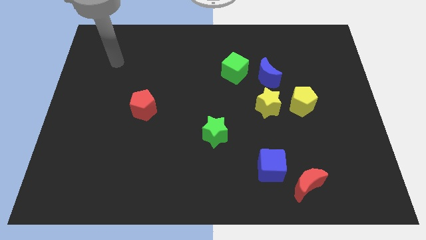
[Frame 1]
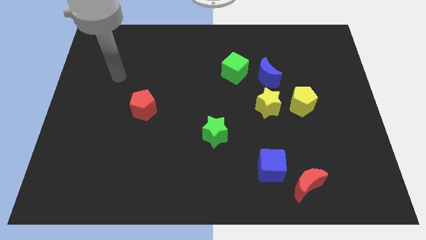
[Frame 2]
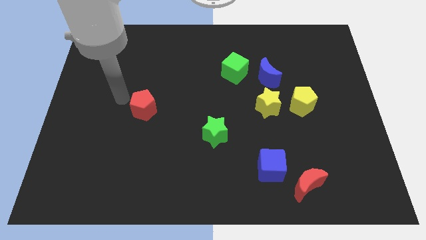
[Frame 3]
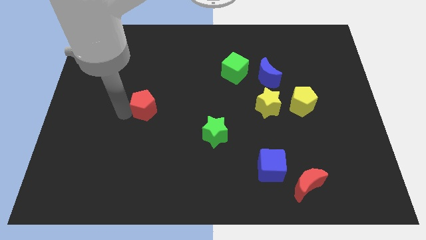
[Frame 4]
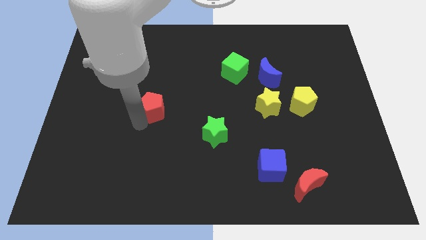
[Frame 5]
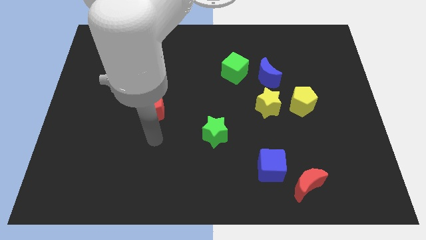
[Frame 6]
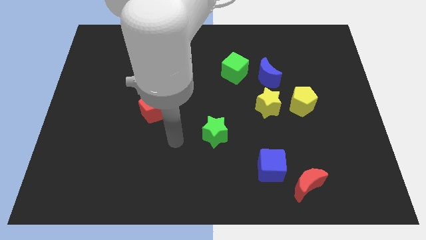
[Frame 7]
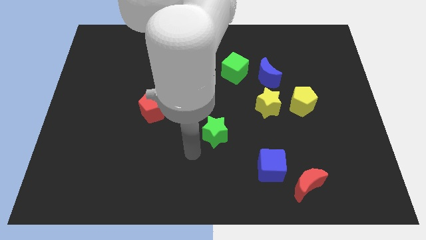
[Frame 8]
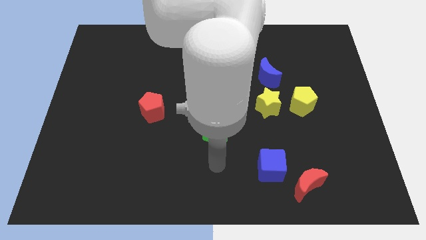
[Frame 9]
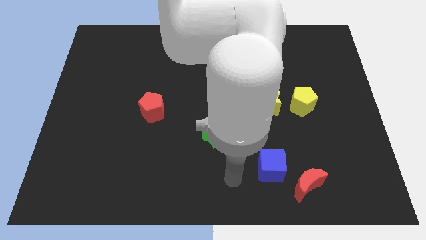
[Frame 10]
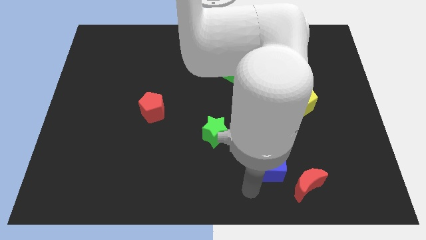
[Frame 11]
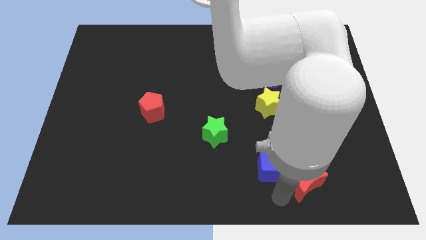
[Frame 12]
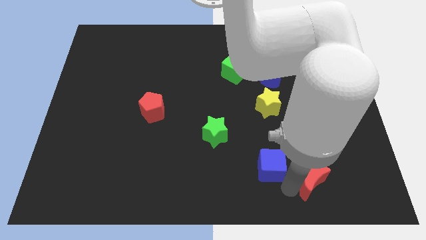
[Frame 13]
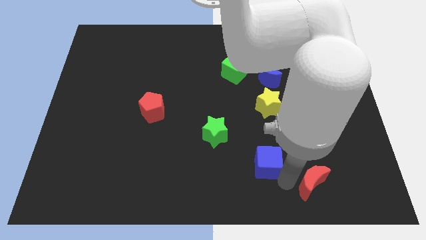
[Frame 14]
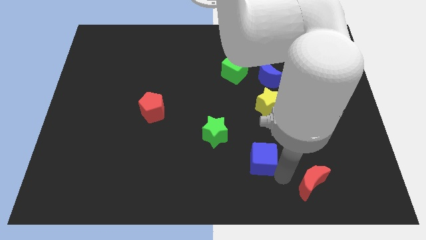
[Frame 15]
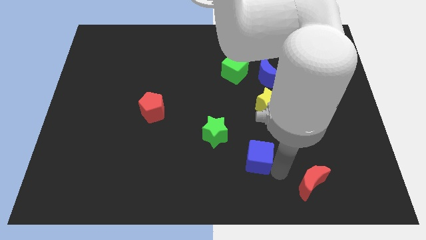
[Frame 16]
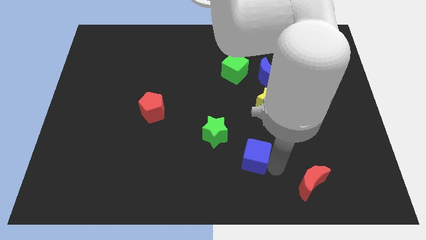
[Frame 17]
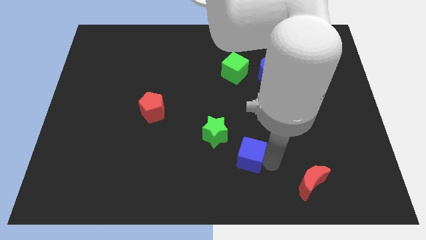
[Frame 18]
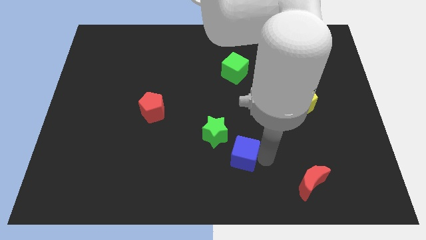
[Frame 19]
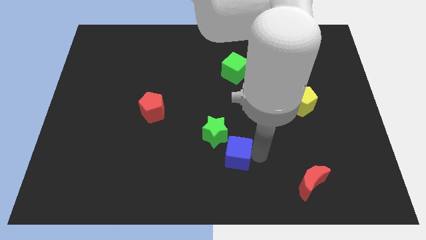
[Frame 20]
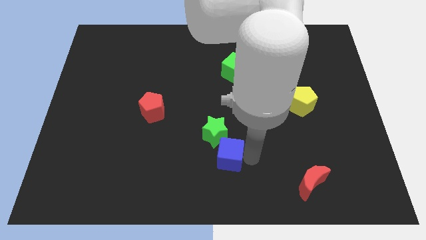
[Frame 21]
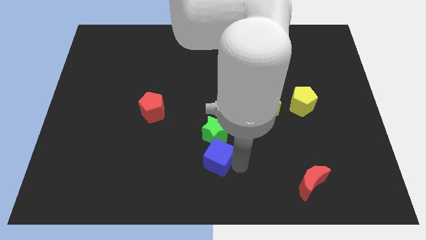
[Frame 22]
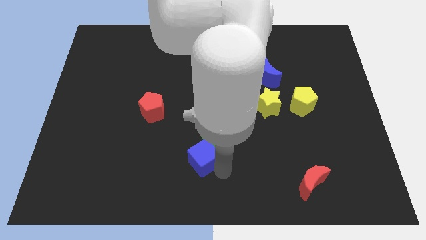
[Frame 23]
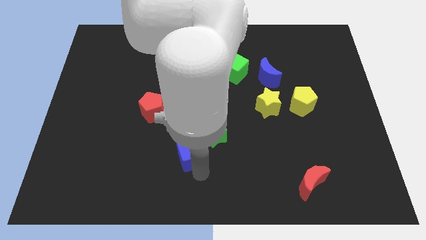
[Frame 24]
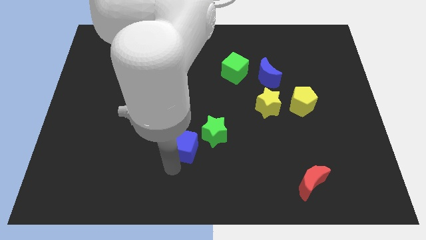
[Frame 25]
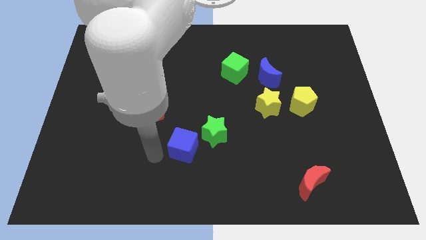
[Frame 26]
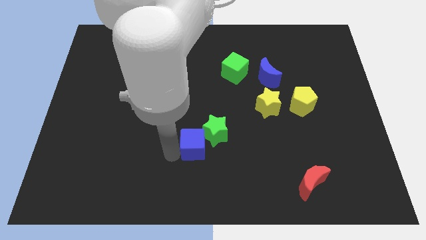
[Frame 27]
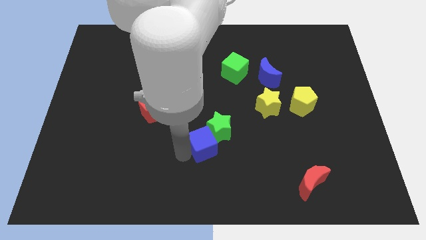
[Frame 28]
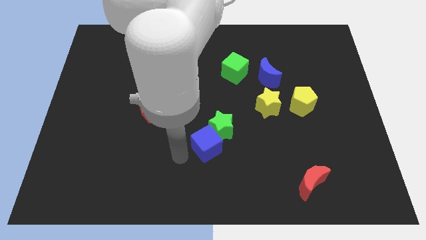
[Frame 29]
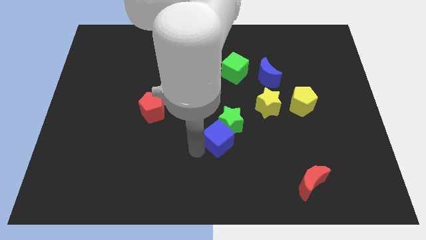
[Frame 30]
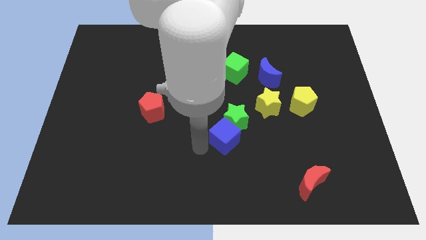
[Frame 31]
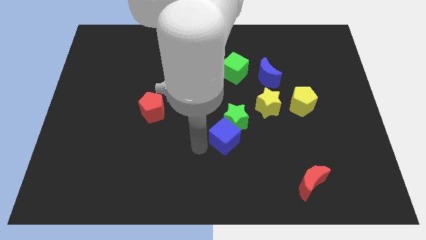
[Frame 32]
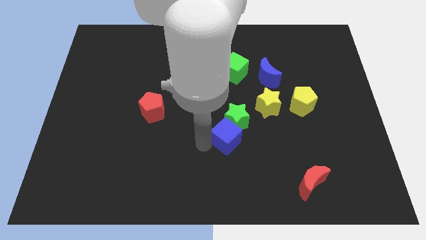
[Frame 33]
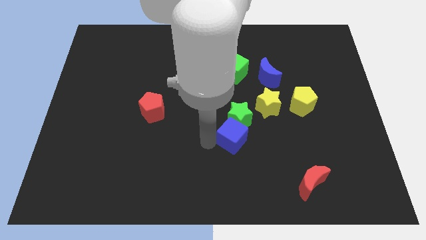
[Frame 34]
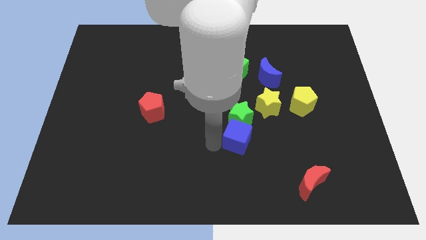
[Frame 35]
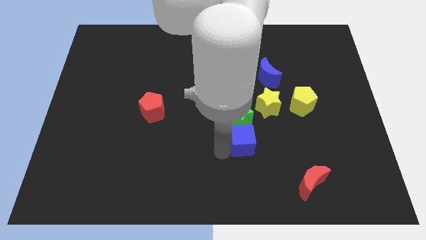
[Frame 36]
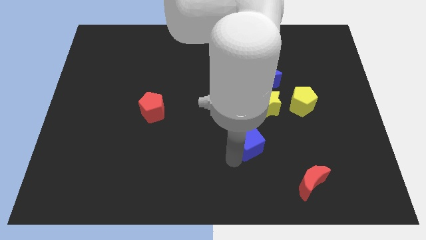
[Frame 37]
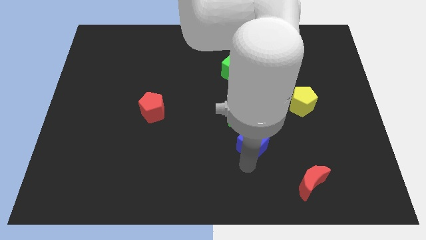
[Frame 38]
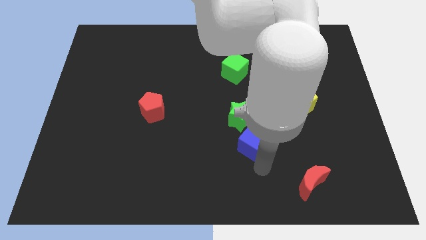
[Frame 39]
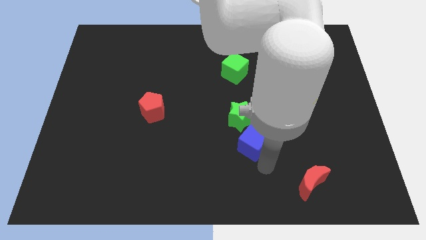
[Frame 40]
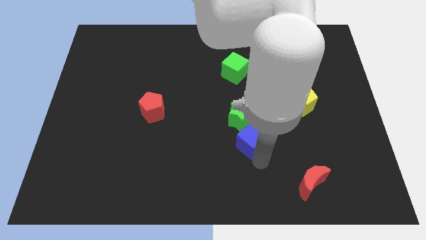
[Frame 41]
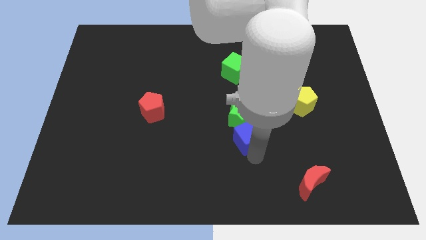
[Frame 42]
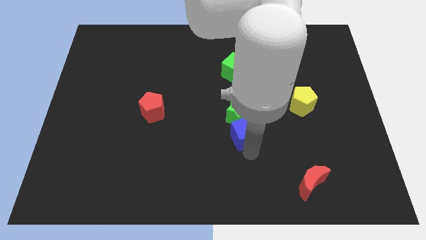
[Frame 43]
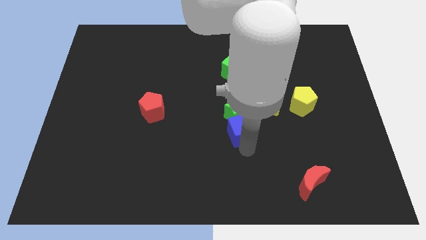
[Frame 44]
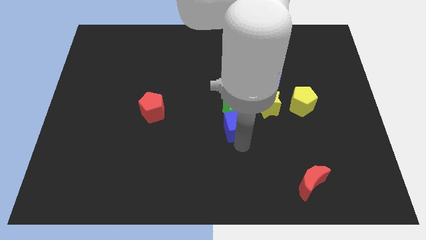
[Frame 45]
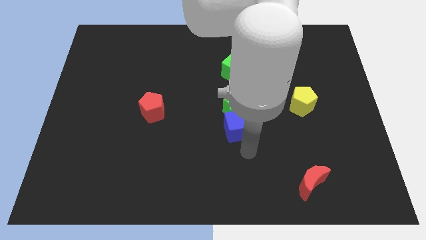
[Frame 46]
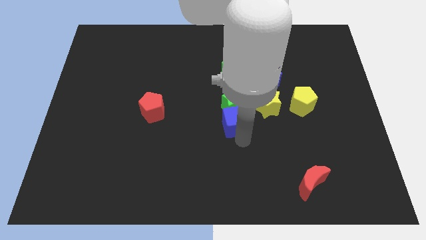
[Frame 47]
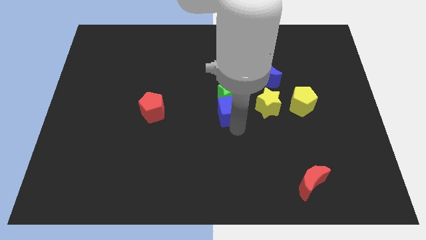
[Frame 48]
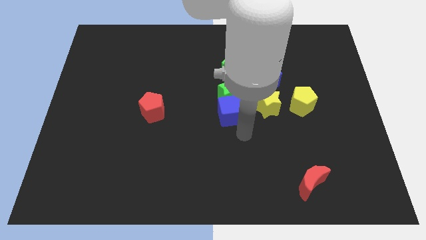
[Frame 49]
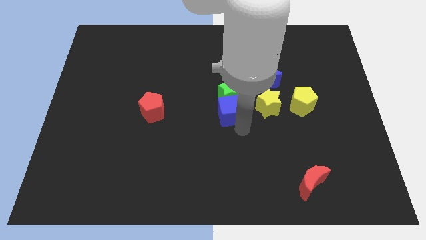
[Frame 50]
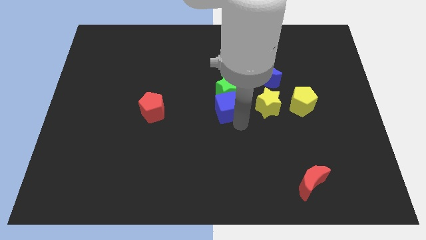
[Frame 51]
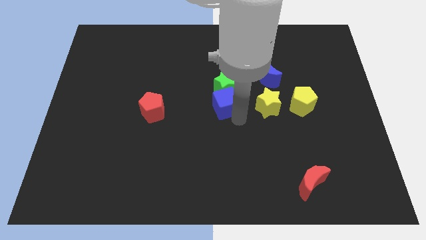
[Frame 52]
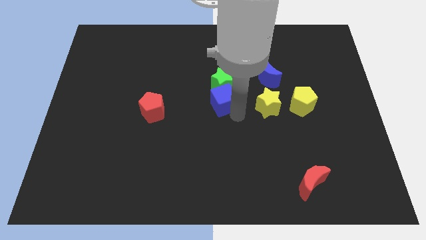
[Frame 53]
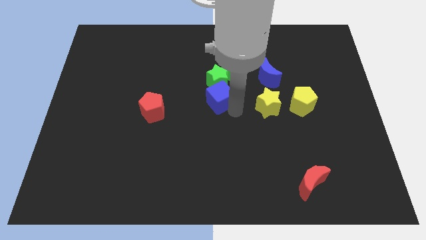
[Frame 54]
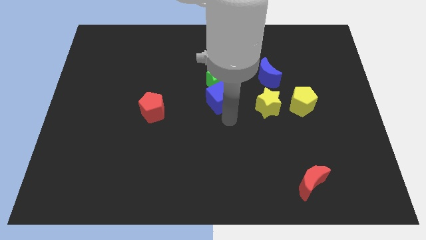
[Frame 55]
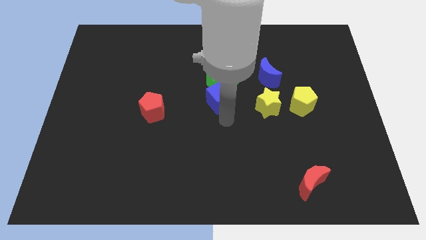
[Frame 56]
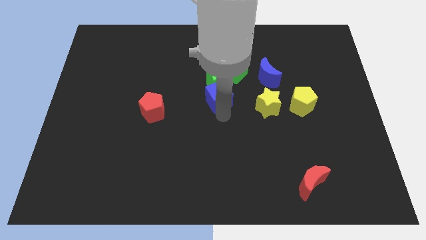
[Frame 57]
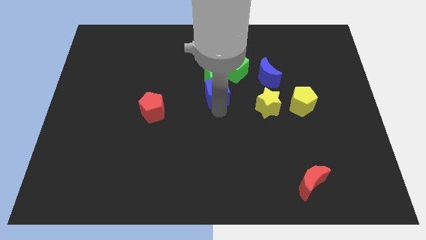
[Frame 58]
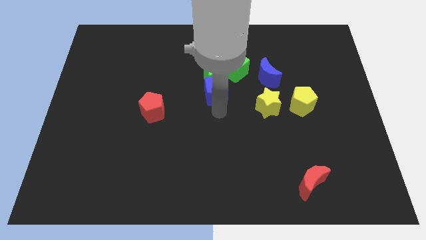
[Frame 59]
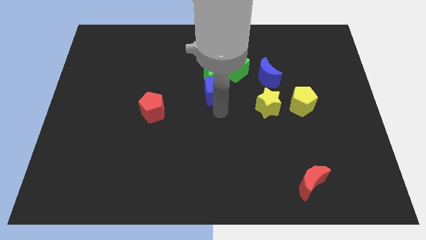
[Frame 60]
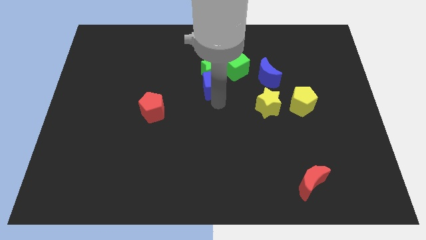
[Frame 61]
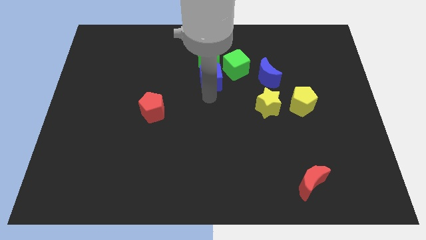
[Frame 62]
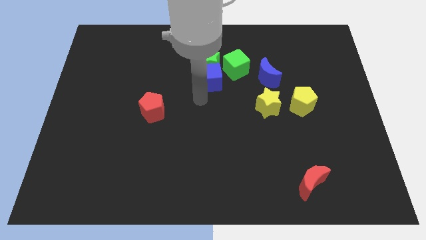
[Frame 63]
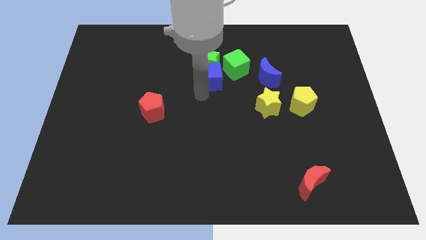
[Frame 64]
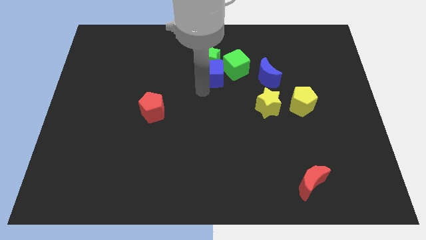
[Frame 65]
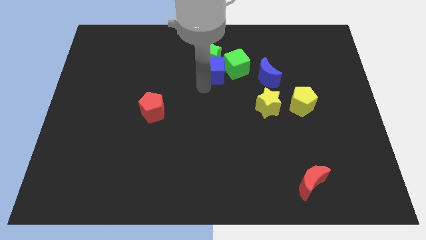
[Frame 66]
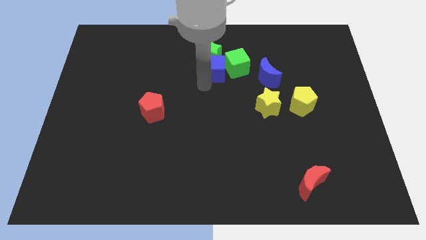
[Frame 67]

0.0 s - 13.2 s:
move the blue cube upwards

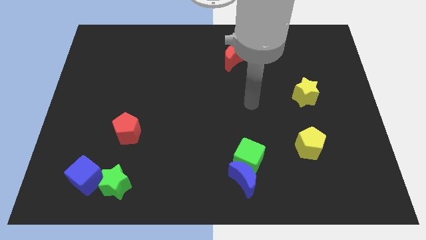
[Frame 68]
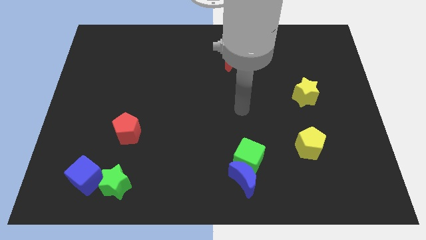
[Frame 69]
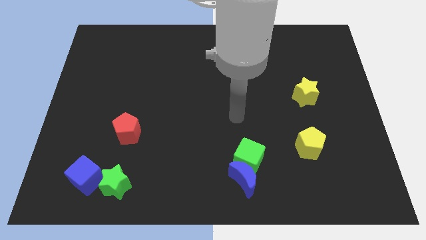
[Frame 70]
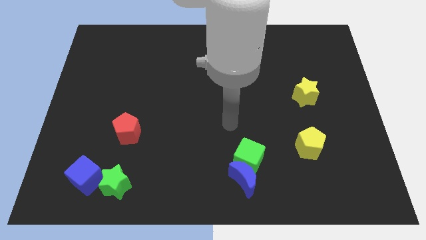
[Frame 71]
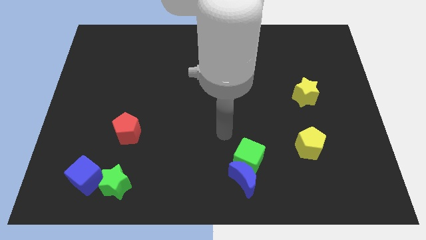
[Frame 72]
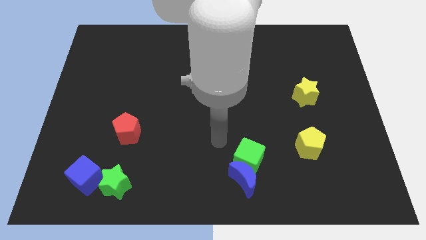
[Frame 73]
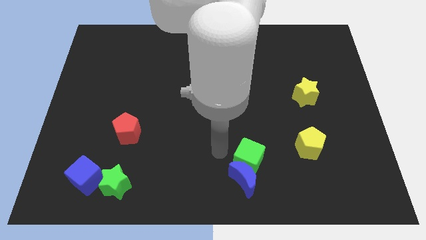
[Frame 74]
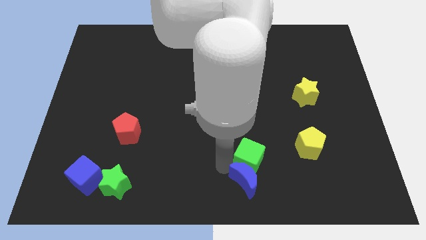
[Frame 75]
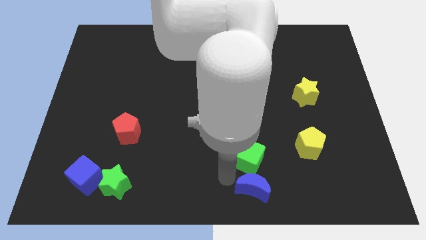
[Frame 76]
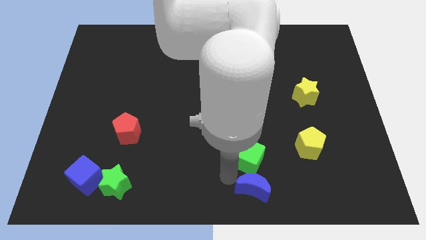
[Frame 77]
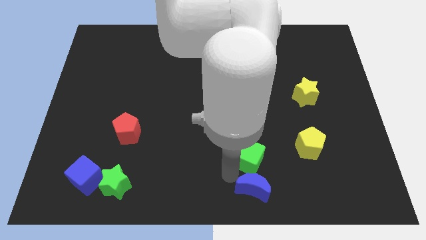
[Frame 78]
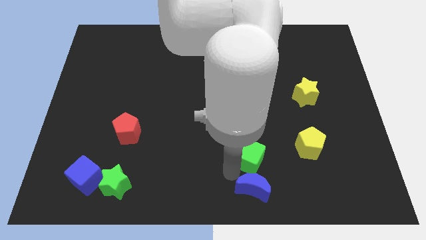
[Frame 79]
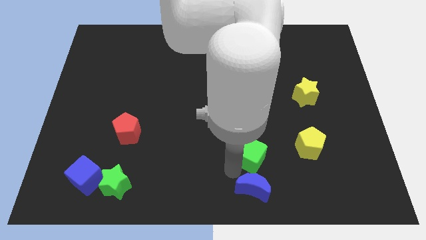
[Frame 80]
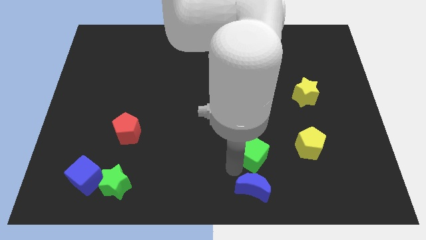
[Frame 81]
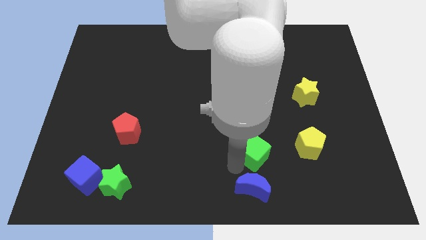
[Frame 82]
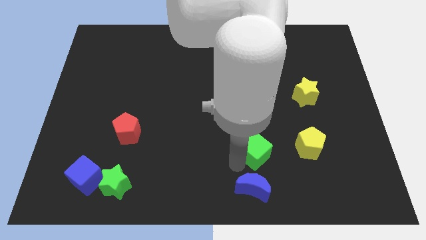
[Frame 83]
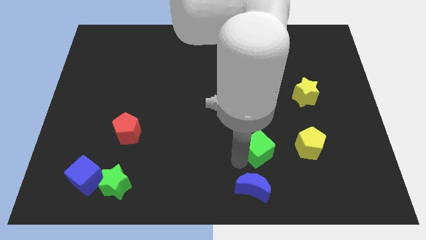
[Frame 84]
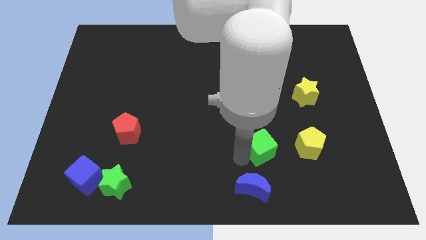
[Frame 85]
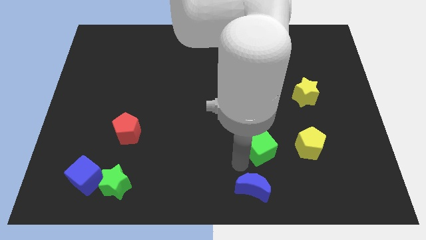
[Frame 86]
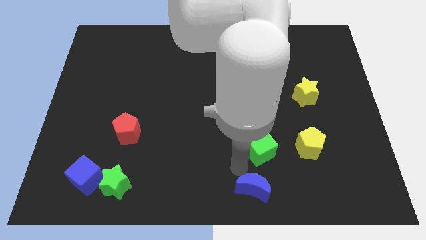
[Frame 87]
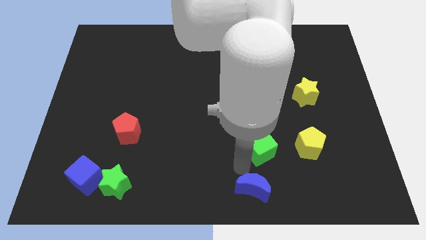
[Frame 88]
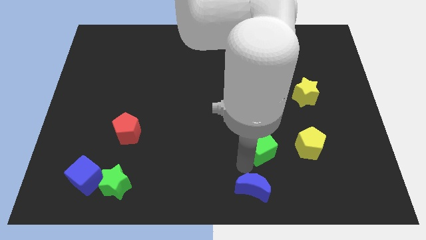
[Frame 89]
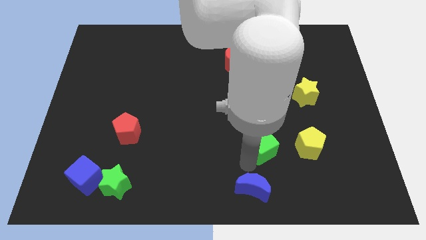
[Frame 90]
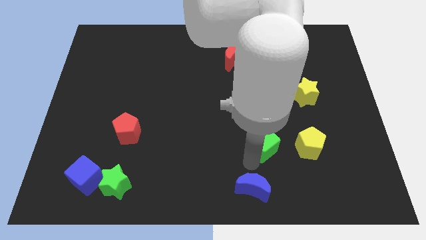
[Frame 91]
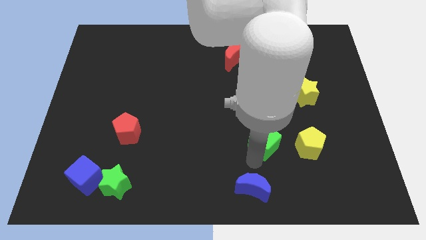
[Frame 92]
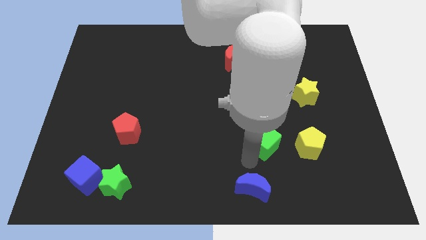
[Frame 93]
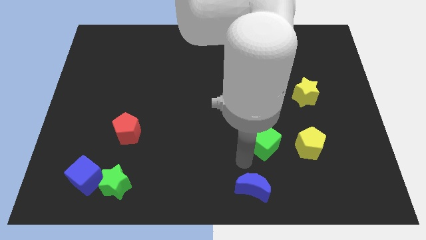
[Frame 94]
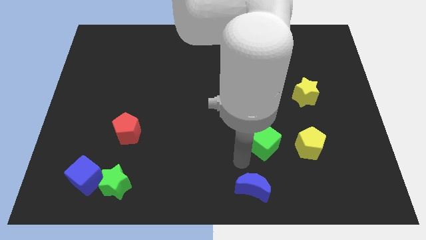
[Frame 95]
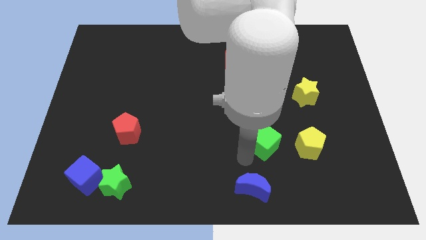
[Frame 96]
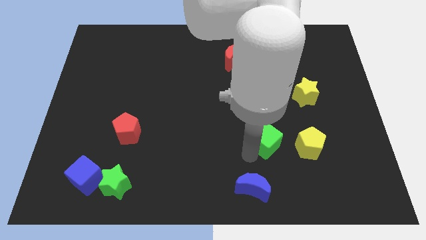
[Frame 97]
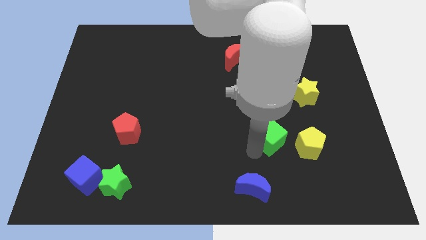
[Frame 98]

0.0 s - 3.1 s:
move the green cube diagonally up and to the right somewhat
